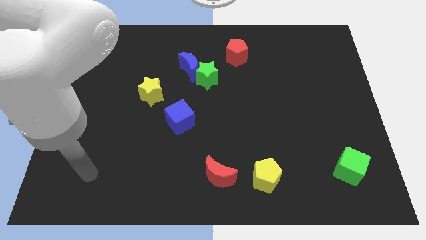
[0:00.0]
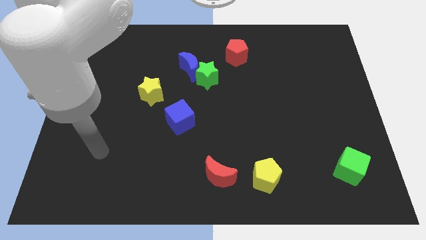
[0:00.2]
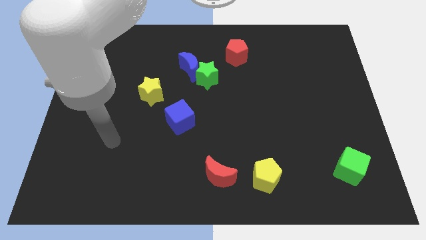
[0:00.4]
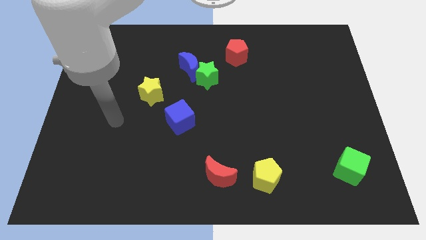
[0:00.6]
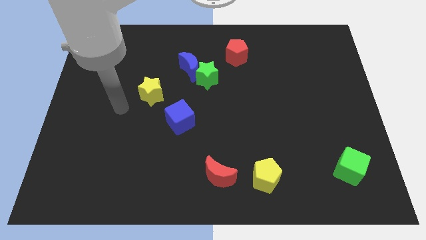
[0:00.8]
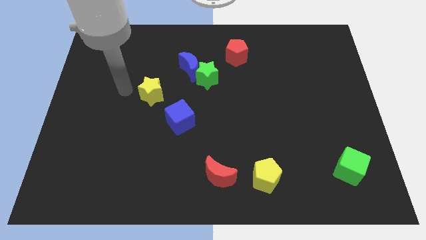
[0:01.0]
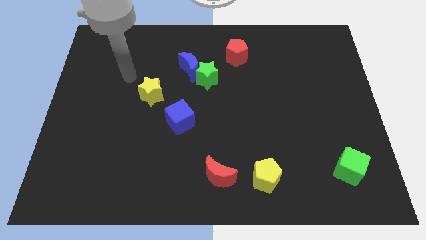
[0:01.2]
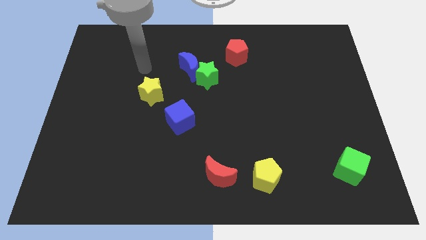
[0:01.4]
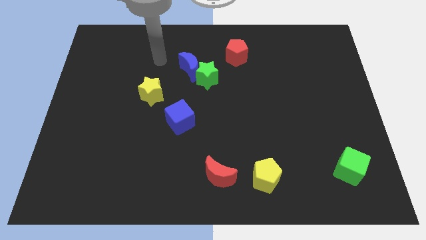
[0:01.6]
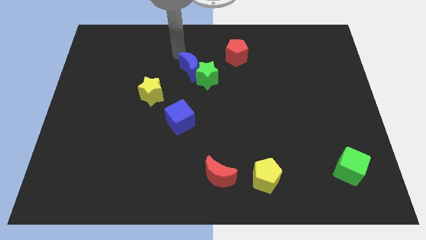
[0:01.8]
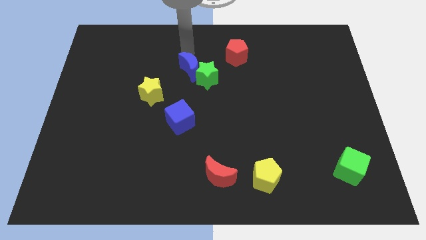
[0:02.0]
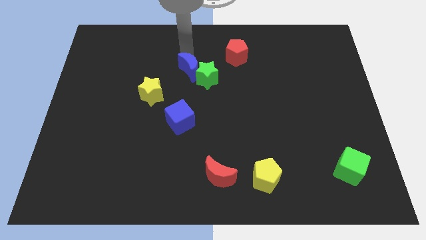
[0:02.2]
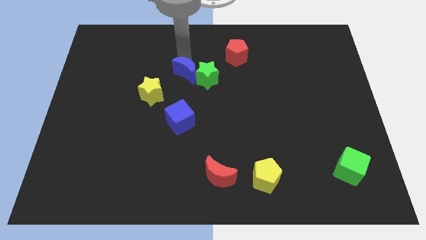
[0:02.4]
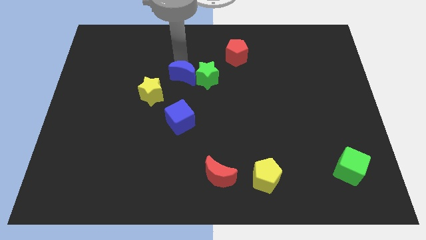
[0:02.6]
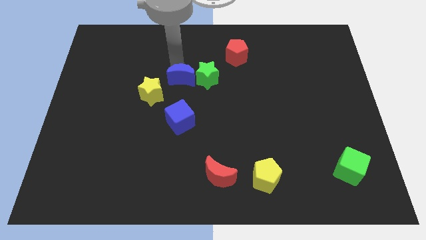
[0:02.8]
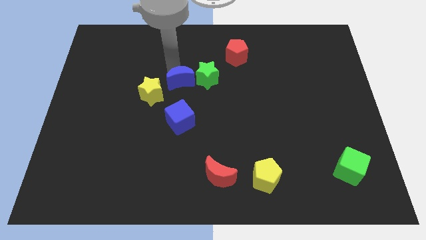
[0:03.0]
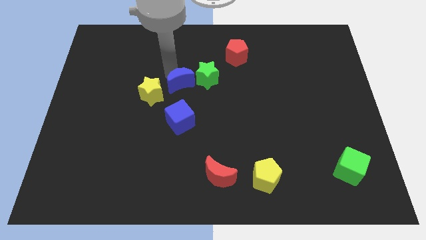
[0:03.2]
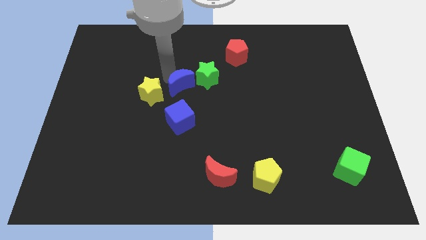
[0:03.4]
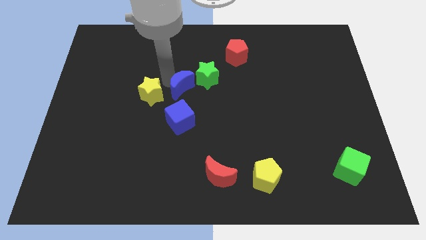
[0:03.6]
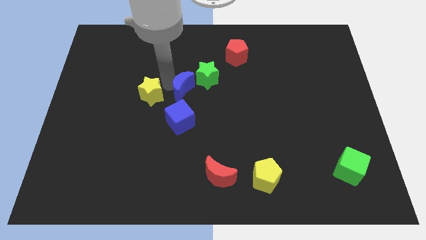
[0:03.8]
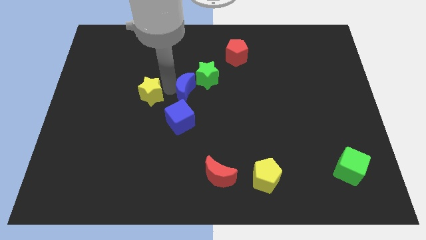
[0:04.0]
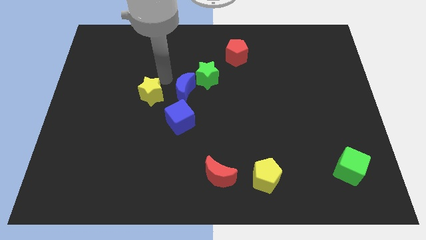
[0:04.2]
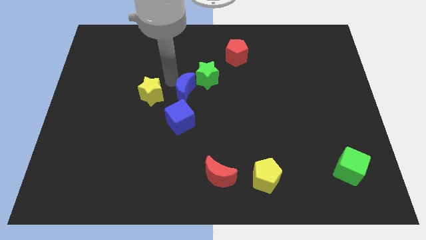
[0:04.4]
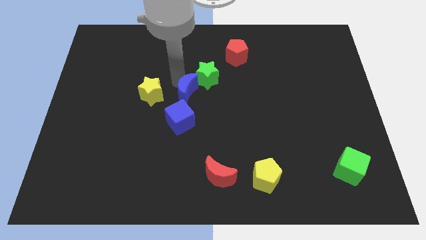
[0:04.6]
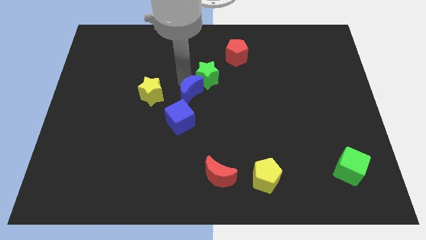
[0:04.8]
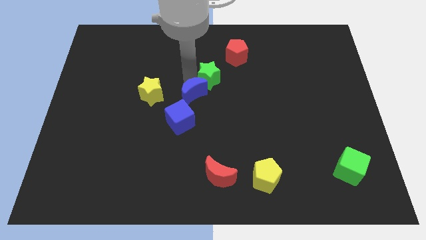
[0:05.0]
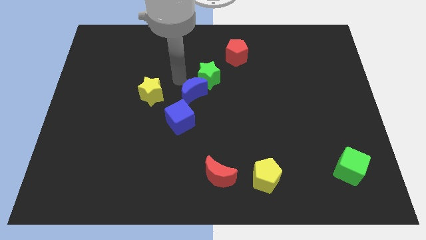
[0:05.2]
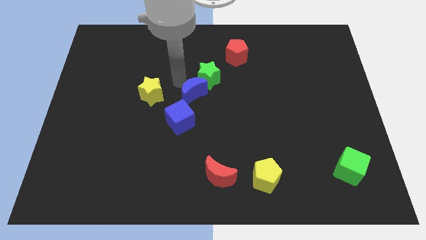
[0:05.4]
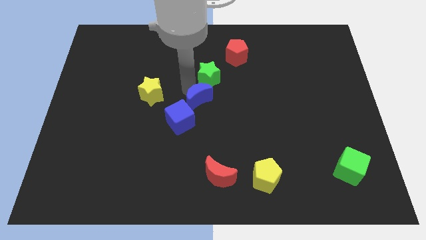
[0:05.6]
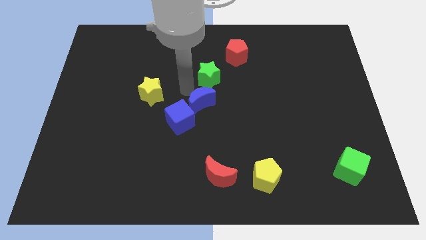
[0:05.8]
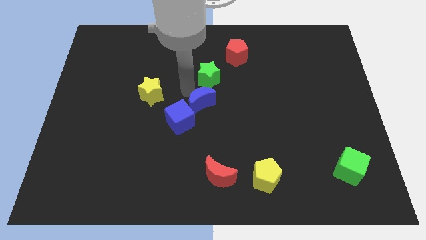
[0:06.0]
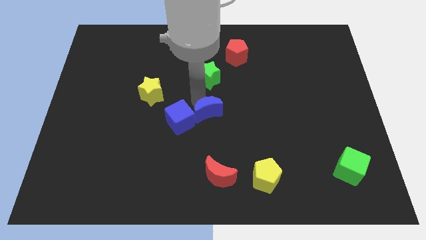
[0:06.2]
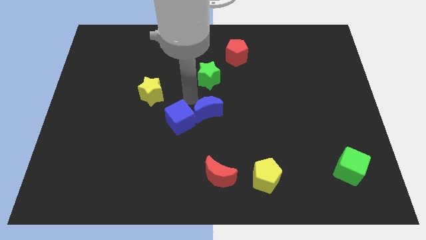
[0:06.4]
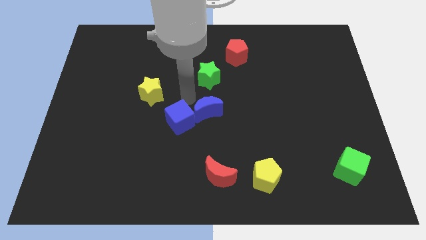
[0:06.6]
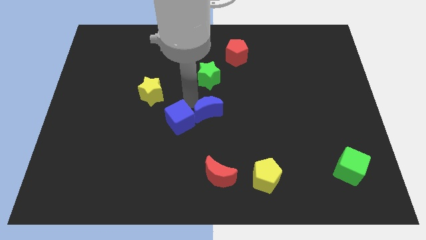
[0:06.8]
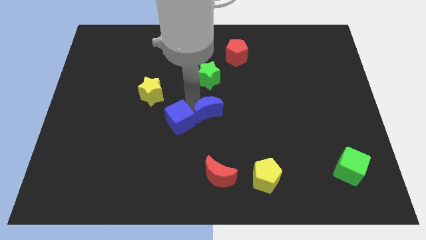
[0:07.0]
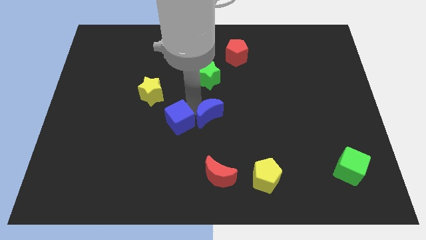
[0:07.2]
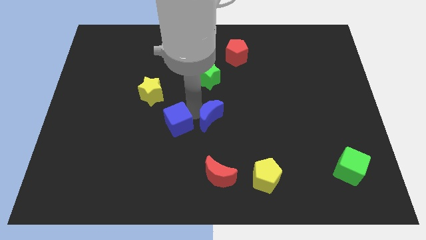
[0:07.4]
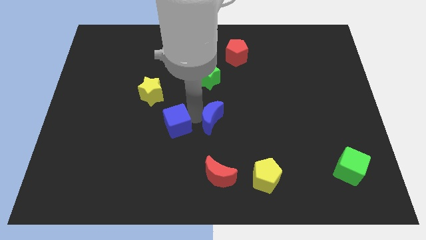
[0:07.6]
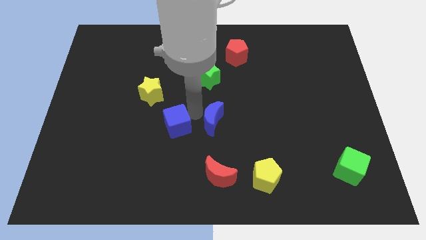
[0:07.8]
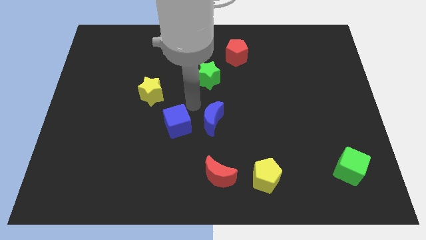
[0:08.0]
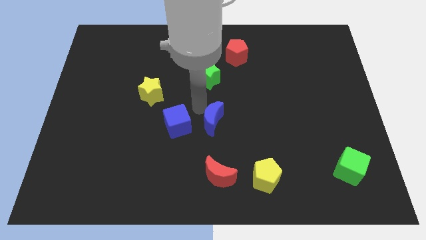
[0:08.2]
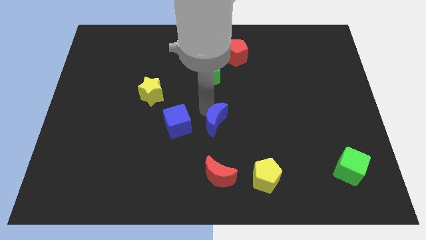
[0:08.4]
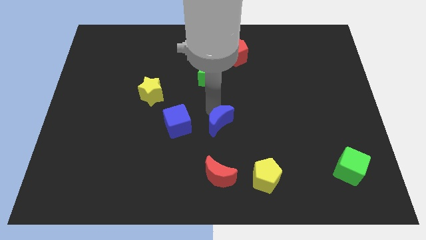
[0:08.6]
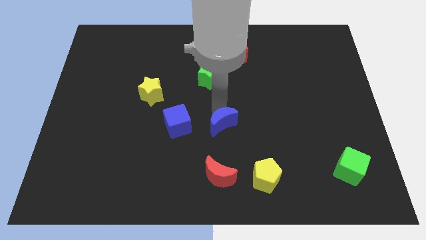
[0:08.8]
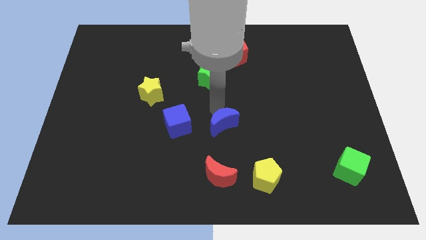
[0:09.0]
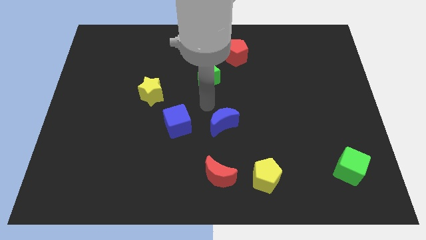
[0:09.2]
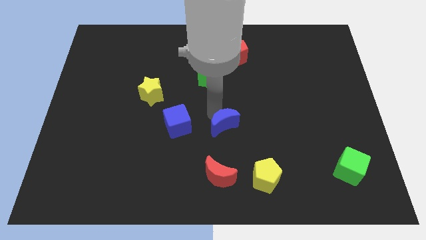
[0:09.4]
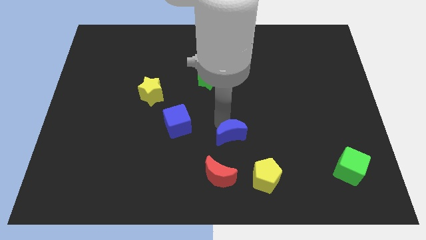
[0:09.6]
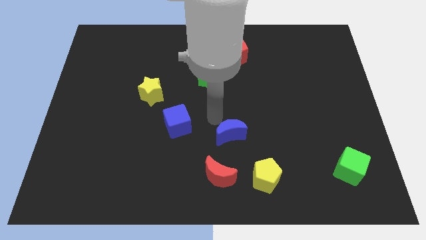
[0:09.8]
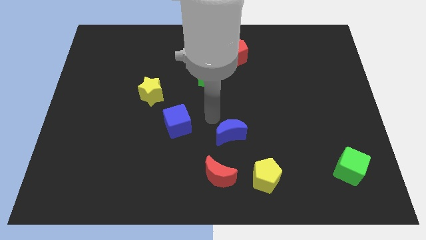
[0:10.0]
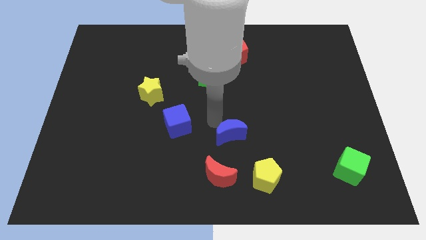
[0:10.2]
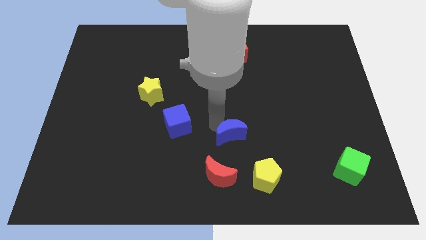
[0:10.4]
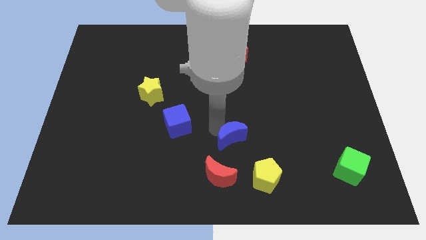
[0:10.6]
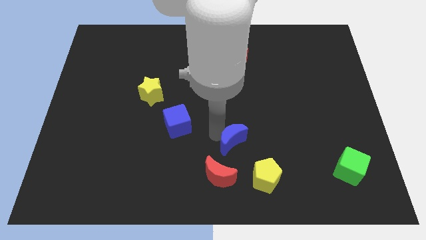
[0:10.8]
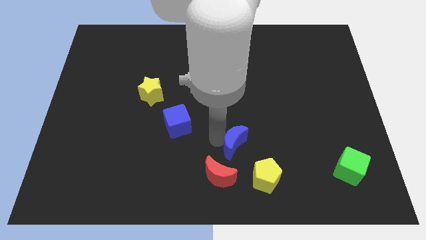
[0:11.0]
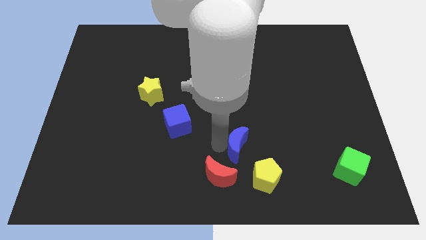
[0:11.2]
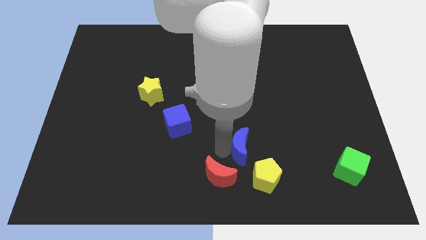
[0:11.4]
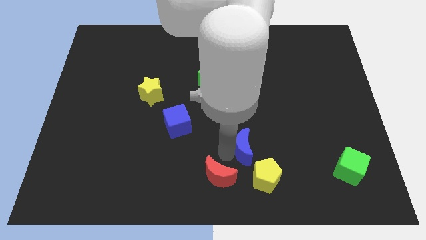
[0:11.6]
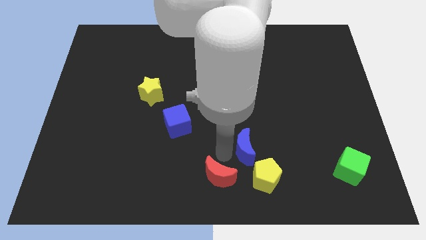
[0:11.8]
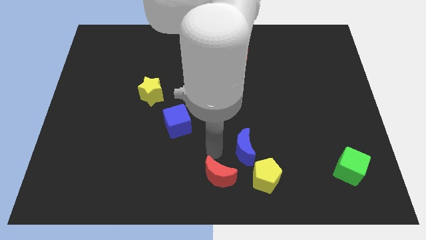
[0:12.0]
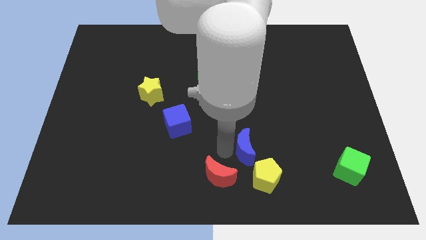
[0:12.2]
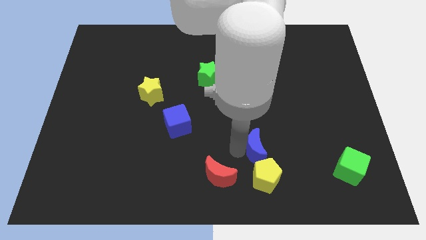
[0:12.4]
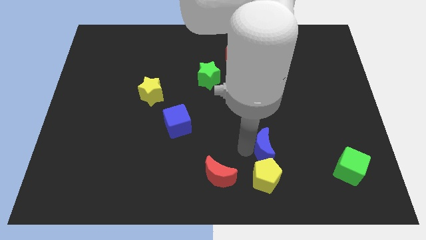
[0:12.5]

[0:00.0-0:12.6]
move the blue moon diagonally up and to the right of the yellow pentagon
